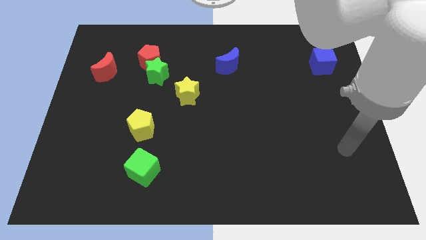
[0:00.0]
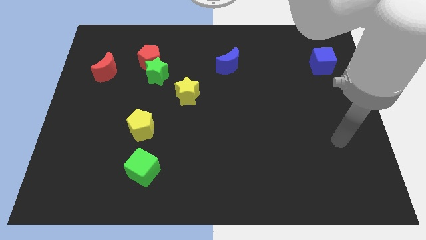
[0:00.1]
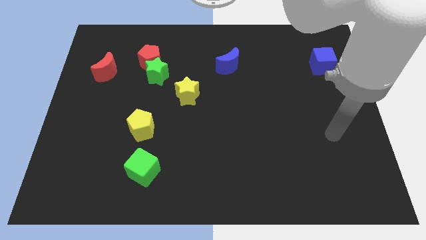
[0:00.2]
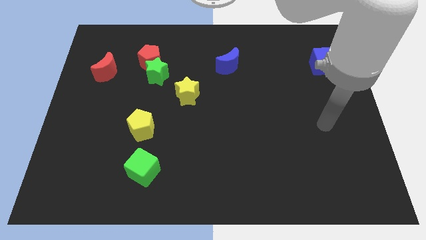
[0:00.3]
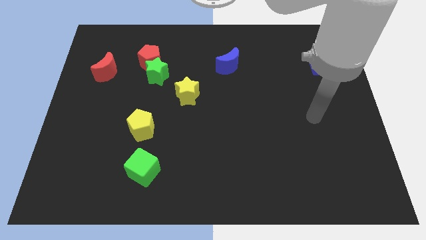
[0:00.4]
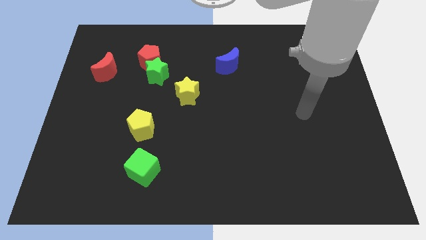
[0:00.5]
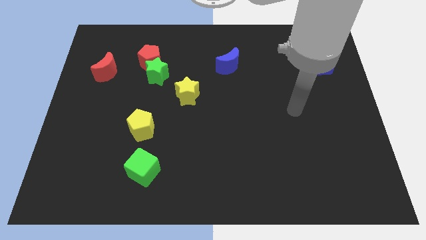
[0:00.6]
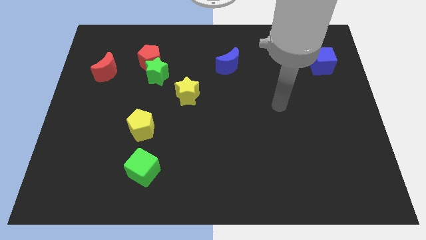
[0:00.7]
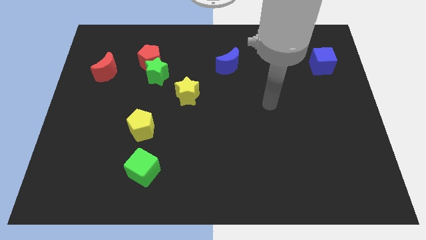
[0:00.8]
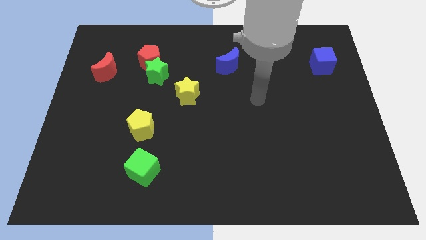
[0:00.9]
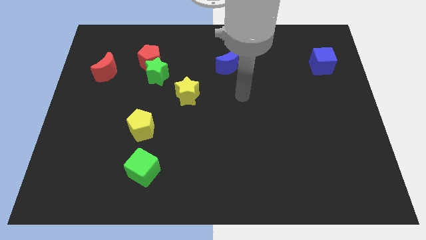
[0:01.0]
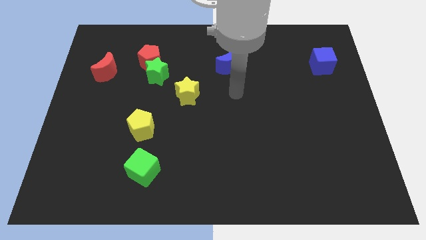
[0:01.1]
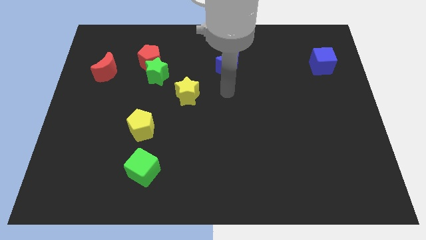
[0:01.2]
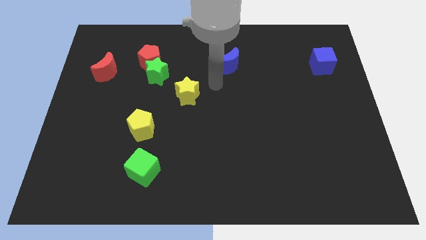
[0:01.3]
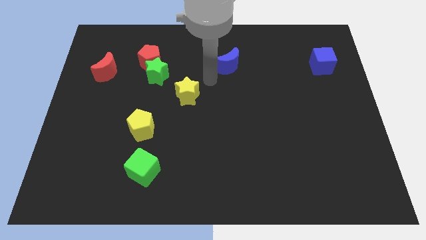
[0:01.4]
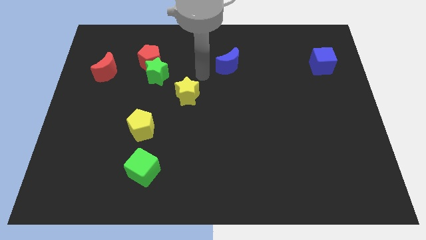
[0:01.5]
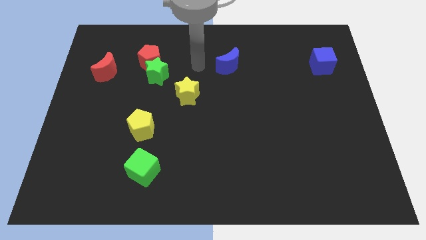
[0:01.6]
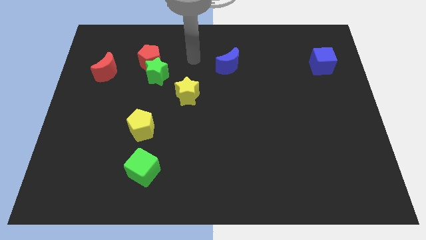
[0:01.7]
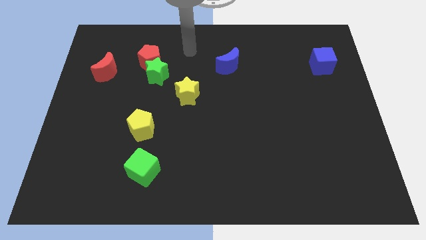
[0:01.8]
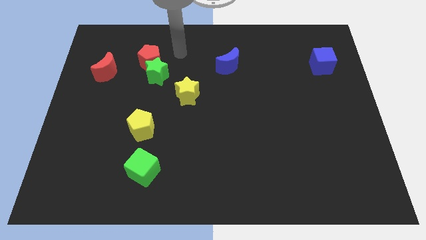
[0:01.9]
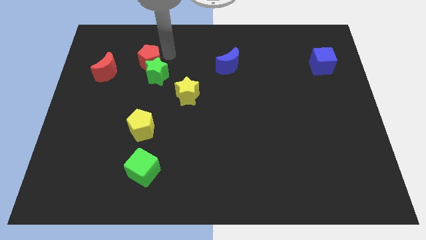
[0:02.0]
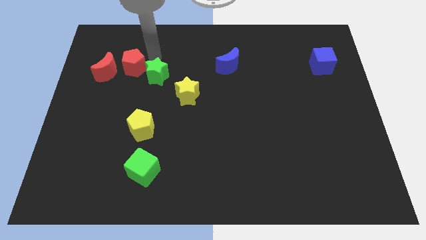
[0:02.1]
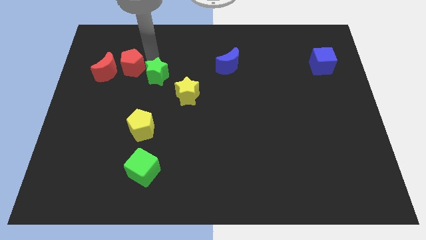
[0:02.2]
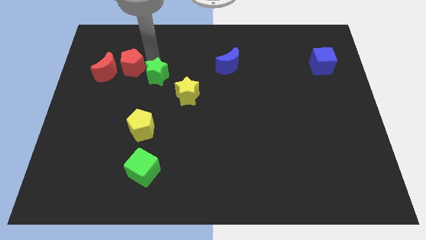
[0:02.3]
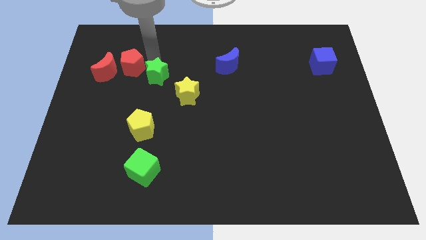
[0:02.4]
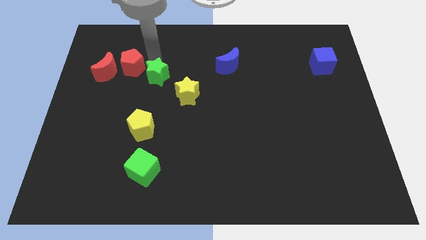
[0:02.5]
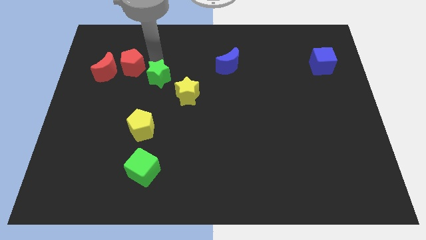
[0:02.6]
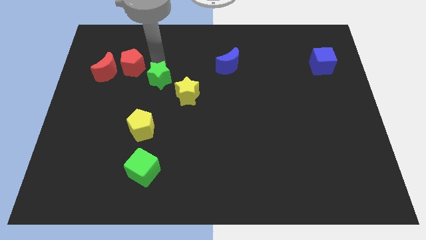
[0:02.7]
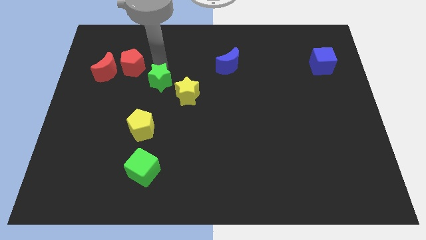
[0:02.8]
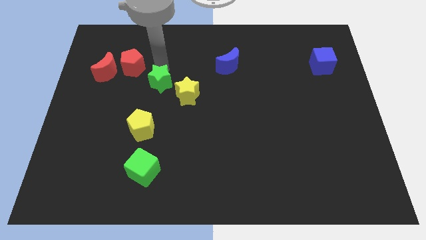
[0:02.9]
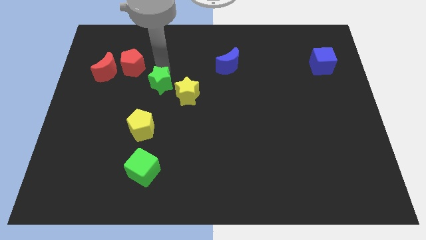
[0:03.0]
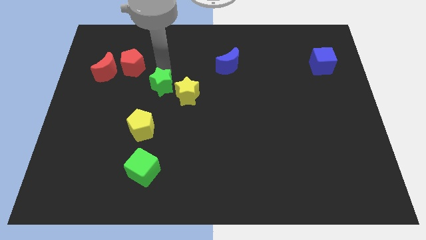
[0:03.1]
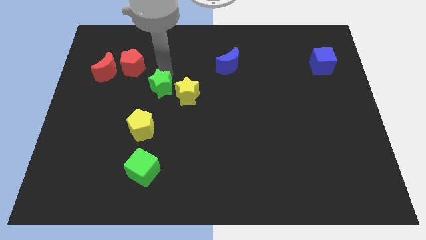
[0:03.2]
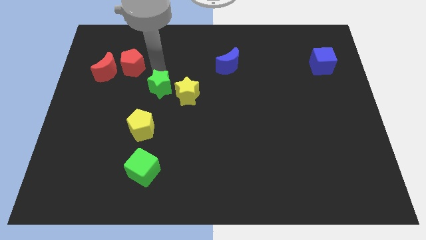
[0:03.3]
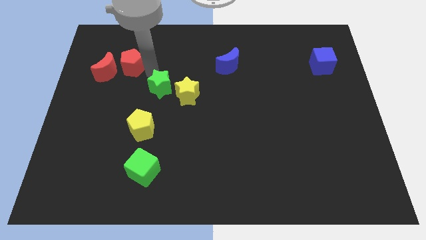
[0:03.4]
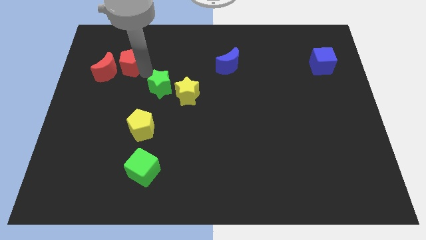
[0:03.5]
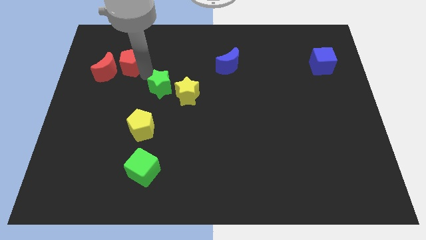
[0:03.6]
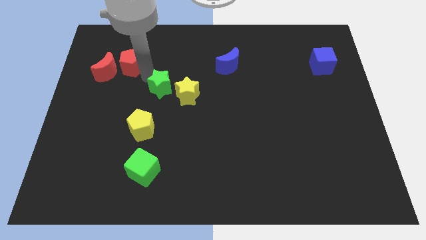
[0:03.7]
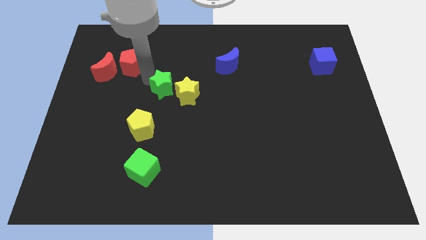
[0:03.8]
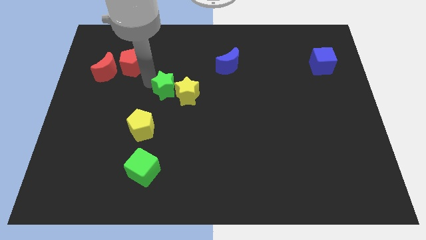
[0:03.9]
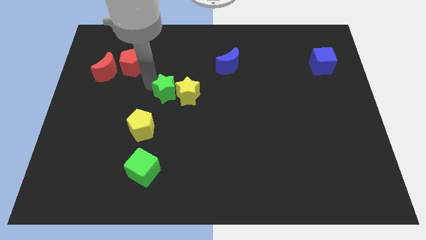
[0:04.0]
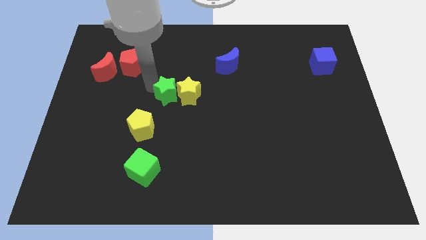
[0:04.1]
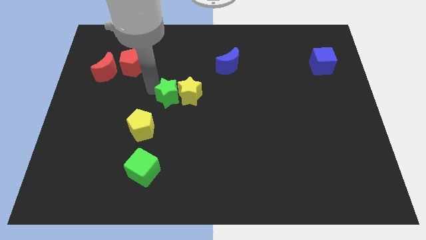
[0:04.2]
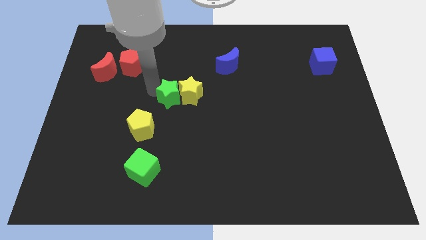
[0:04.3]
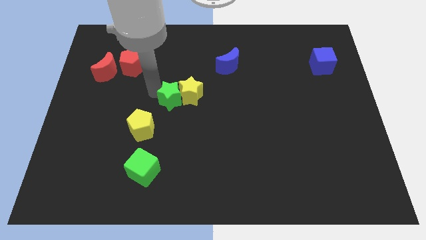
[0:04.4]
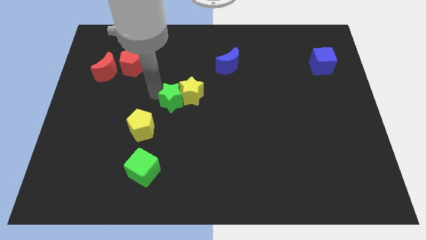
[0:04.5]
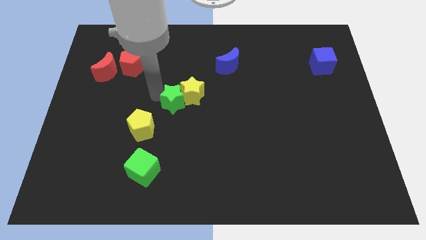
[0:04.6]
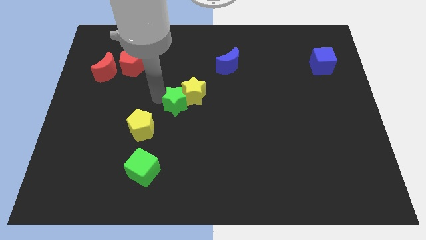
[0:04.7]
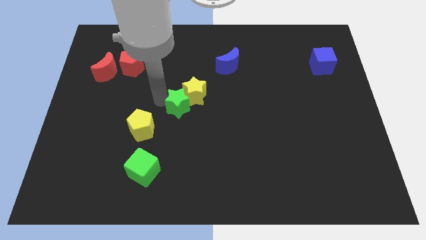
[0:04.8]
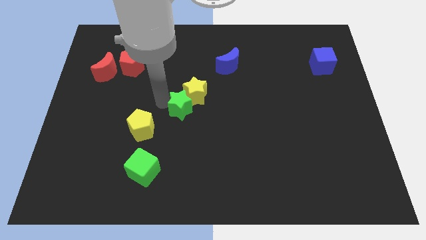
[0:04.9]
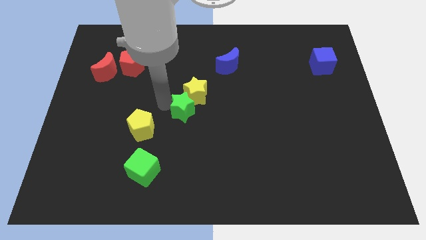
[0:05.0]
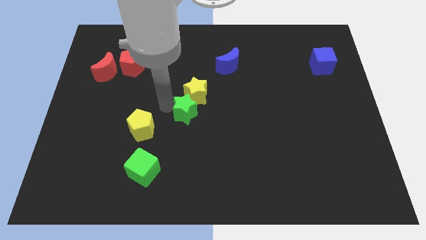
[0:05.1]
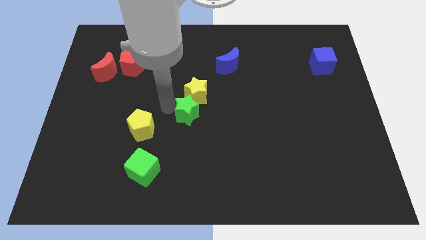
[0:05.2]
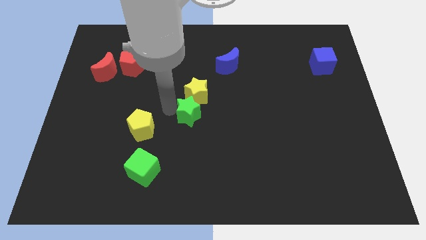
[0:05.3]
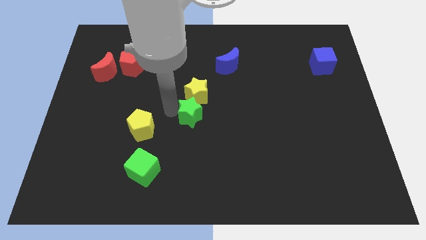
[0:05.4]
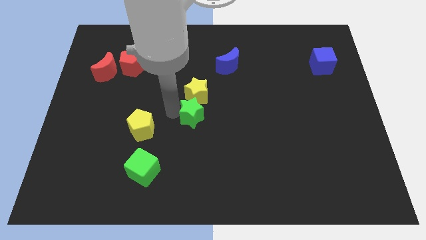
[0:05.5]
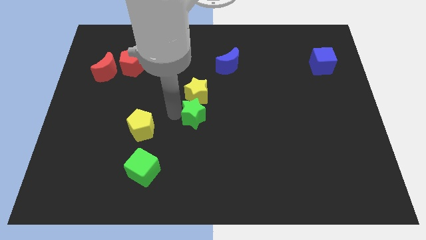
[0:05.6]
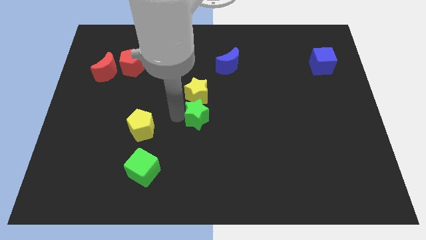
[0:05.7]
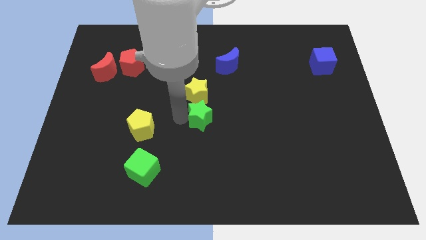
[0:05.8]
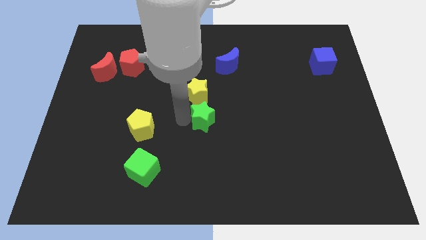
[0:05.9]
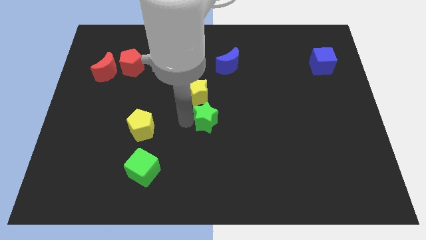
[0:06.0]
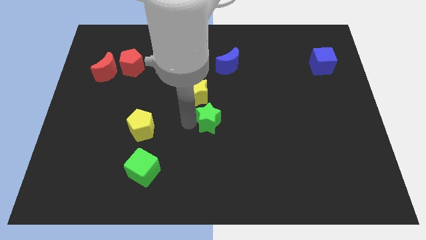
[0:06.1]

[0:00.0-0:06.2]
move the green star down and to the right

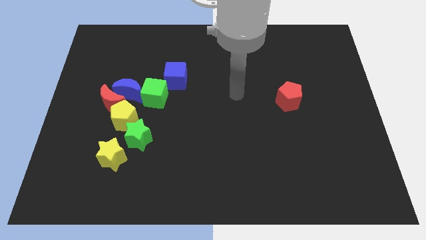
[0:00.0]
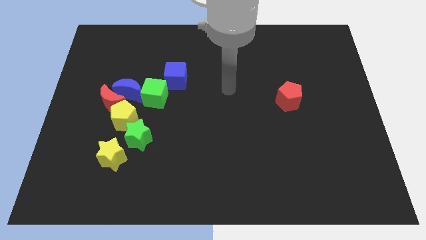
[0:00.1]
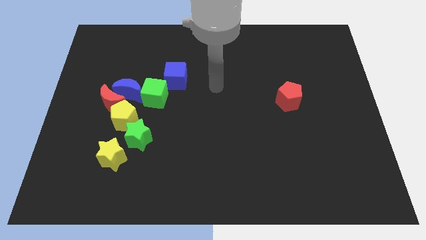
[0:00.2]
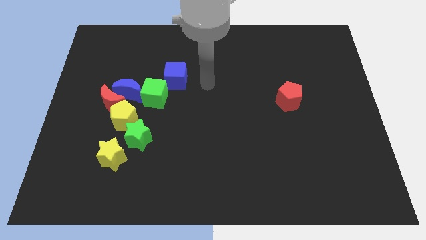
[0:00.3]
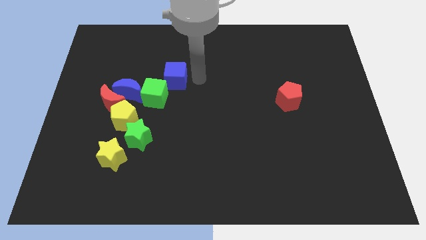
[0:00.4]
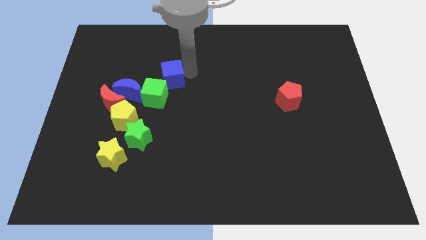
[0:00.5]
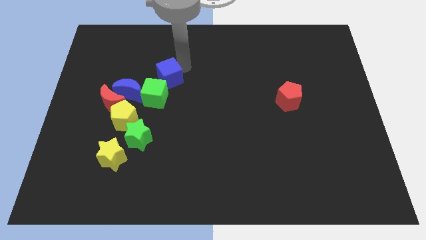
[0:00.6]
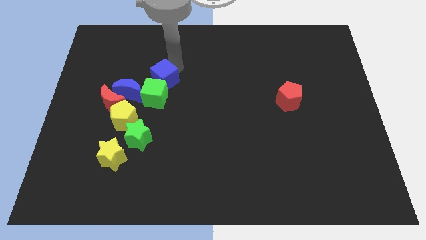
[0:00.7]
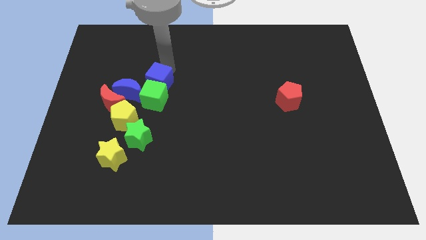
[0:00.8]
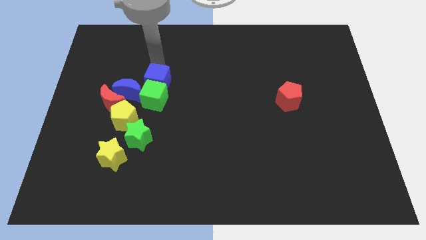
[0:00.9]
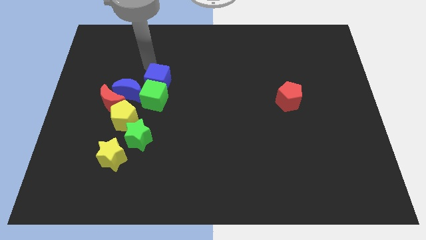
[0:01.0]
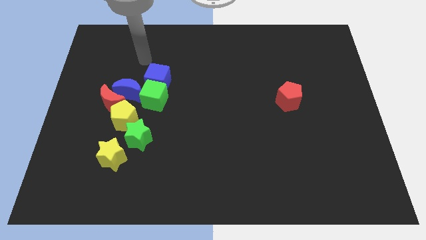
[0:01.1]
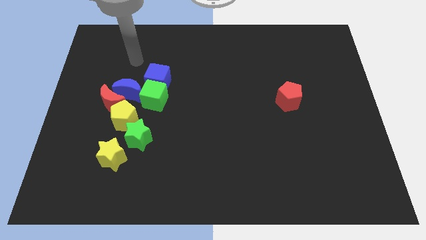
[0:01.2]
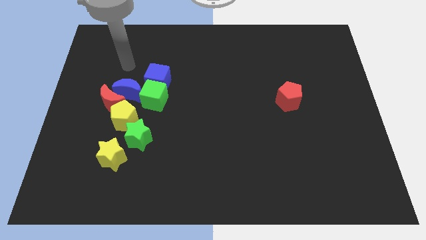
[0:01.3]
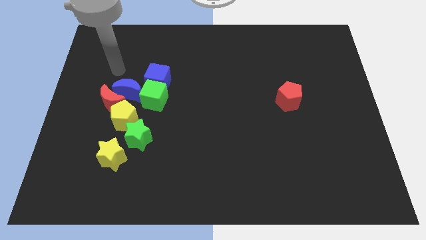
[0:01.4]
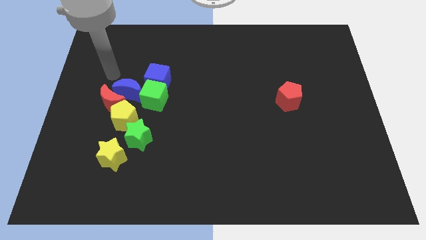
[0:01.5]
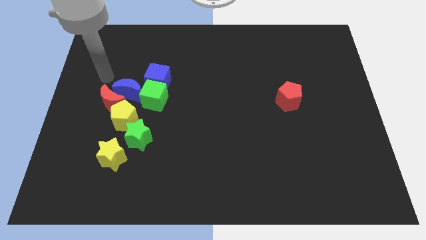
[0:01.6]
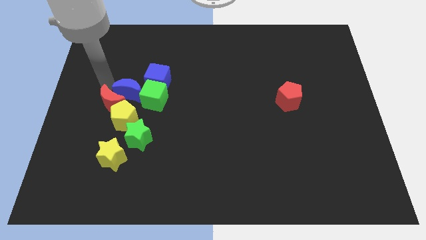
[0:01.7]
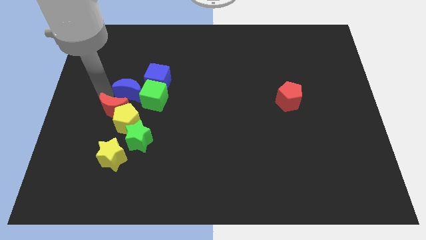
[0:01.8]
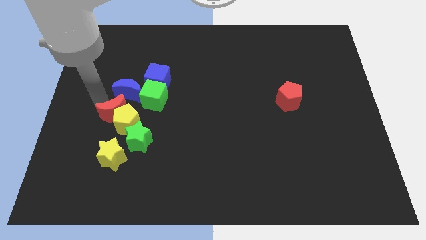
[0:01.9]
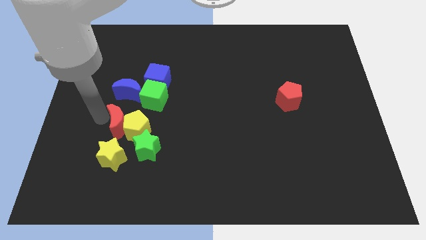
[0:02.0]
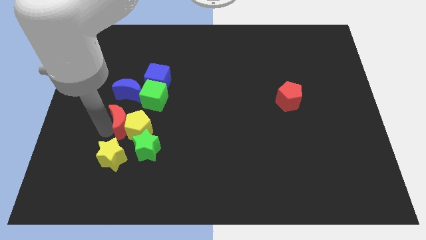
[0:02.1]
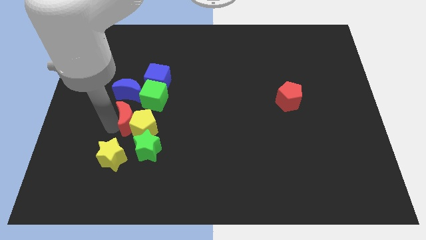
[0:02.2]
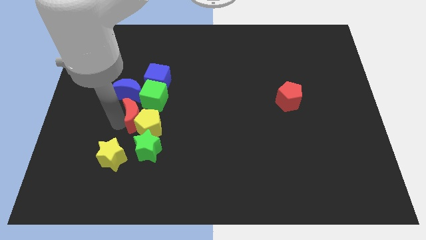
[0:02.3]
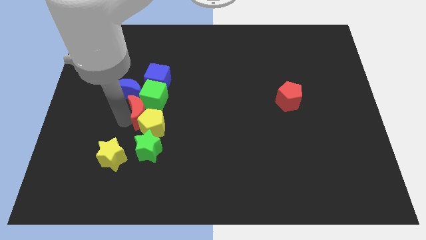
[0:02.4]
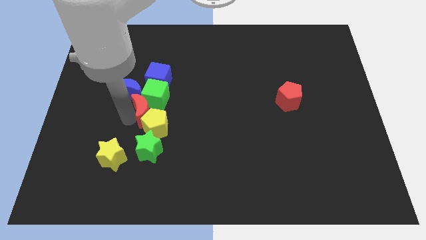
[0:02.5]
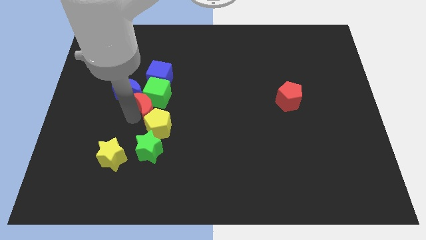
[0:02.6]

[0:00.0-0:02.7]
slide the yellow pentagon a little downwards and right diagonally
